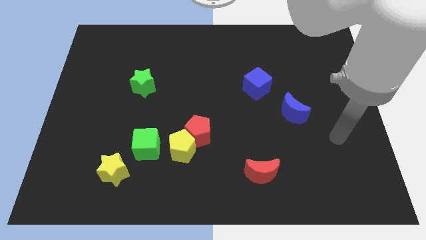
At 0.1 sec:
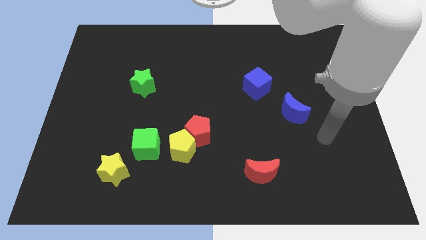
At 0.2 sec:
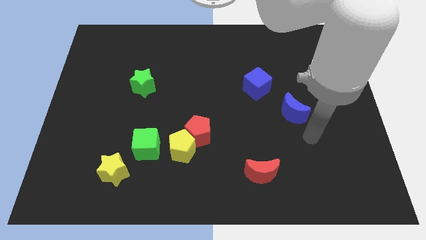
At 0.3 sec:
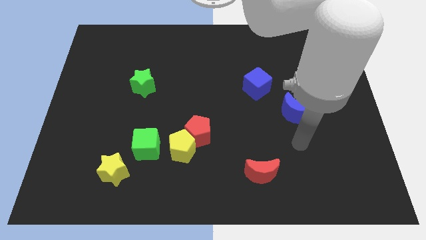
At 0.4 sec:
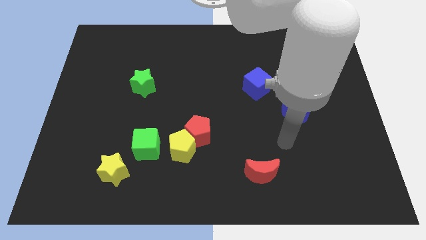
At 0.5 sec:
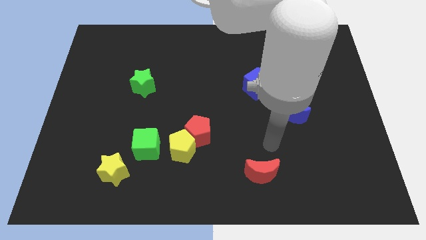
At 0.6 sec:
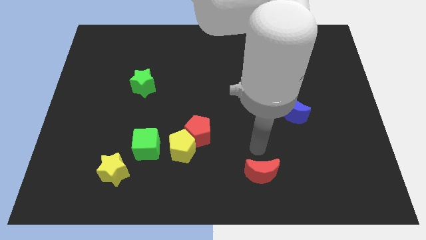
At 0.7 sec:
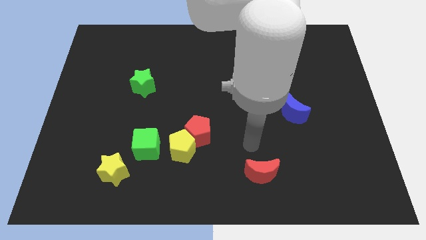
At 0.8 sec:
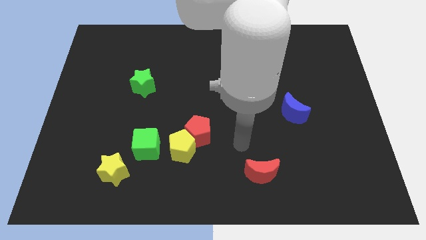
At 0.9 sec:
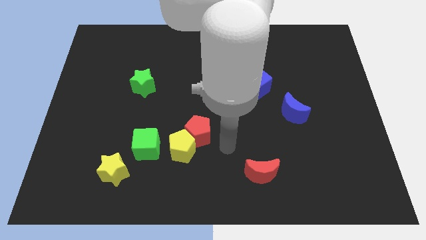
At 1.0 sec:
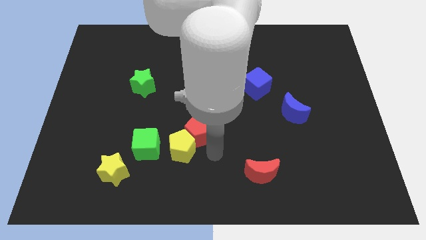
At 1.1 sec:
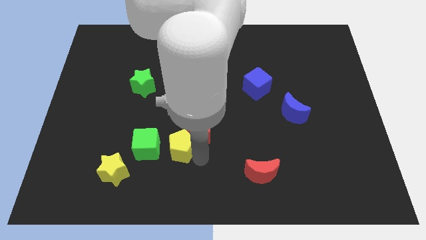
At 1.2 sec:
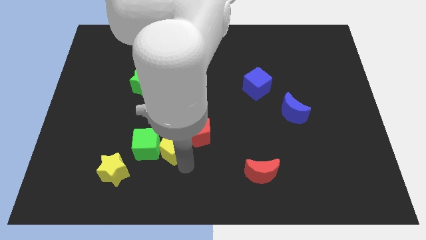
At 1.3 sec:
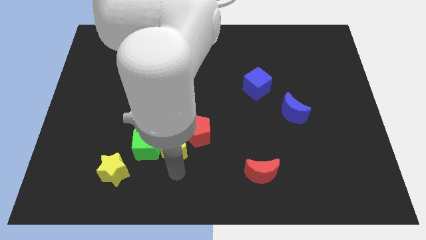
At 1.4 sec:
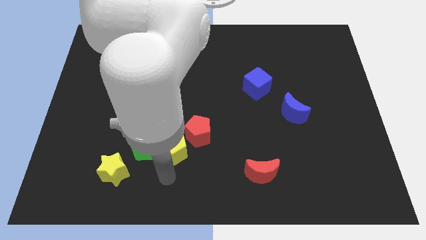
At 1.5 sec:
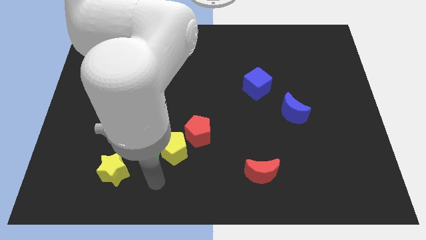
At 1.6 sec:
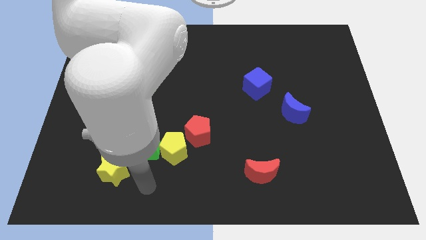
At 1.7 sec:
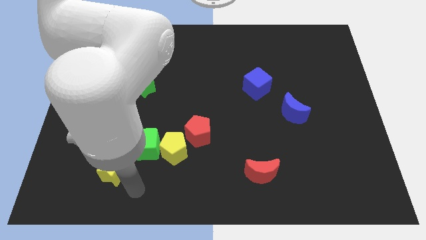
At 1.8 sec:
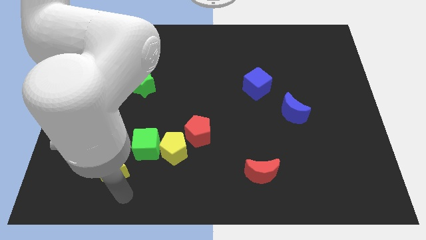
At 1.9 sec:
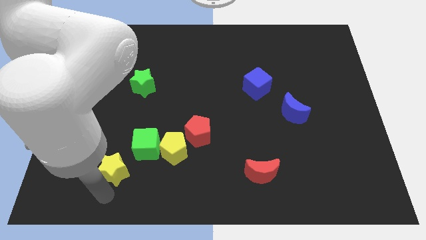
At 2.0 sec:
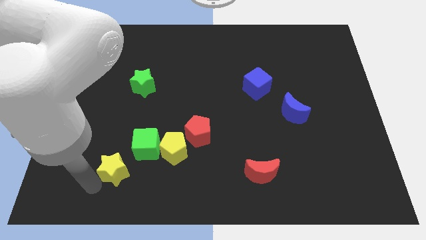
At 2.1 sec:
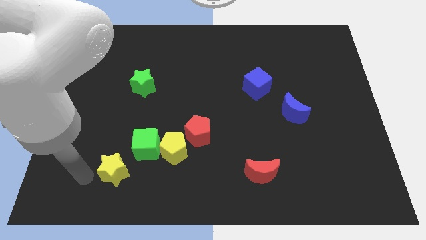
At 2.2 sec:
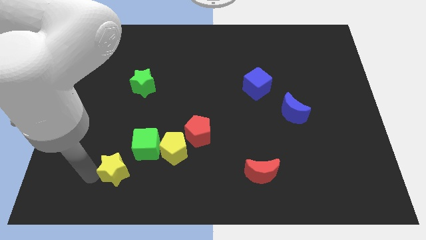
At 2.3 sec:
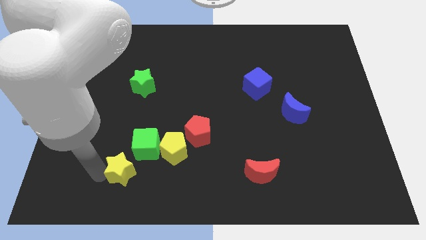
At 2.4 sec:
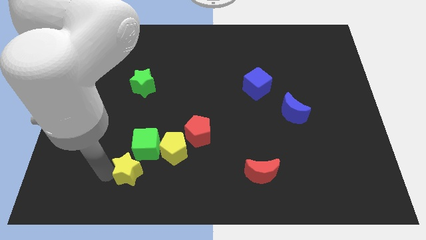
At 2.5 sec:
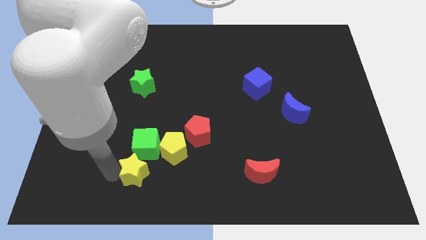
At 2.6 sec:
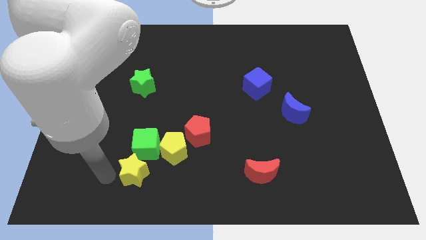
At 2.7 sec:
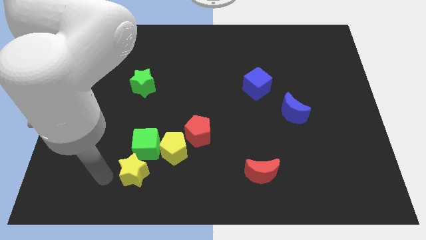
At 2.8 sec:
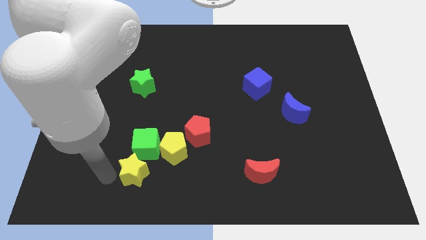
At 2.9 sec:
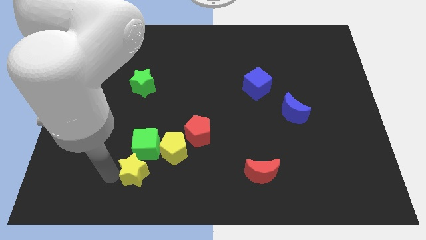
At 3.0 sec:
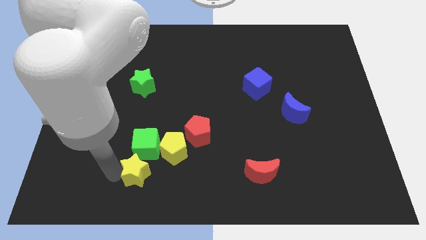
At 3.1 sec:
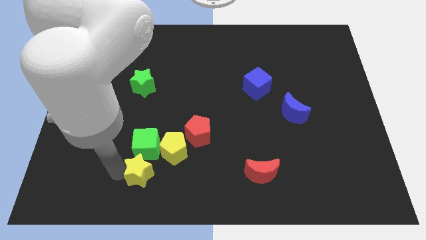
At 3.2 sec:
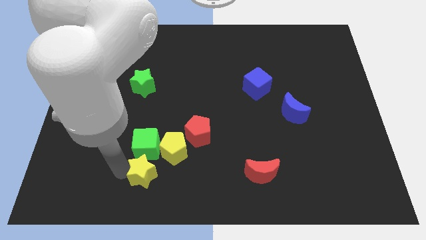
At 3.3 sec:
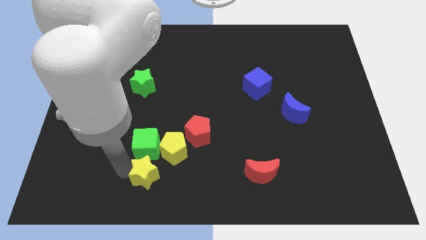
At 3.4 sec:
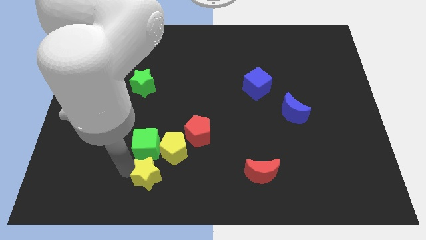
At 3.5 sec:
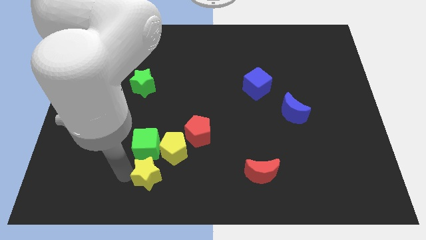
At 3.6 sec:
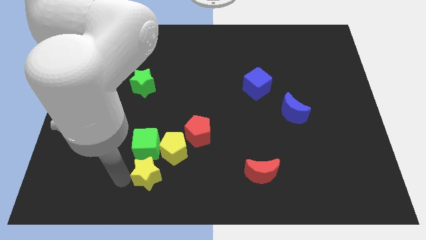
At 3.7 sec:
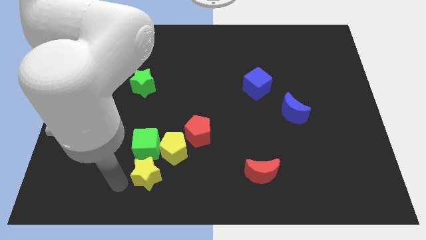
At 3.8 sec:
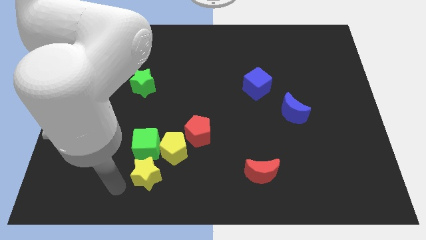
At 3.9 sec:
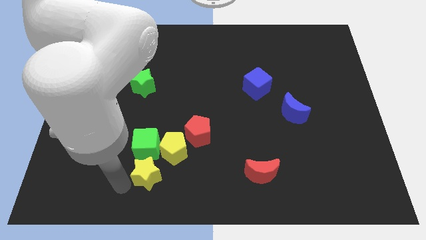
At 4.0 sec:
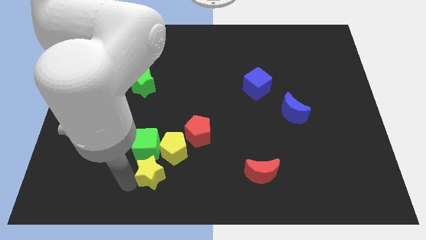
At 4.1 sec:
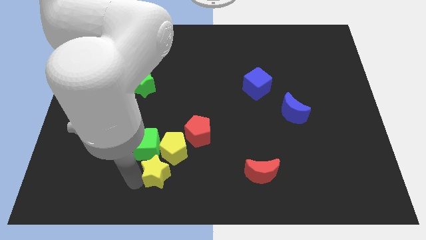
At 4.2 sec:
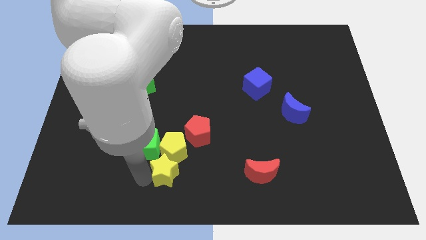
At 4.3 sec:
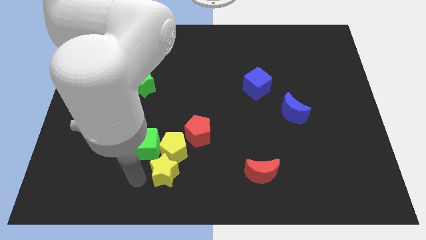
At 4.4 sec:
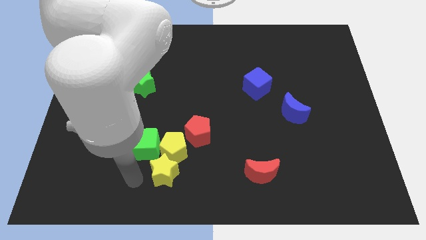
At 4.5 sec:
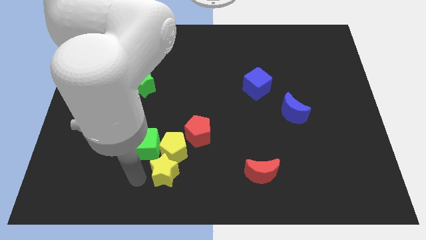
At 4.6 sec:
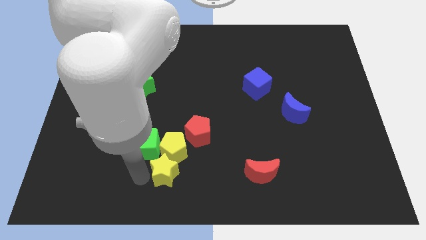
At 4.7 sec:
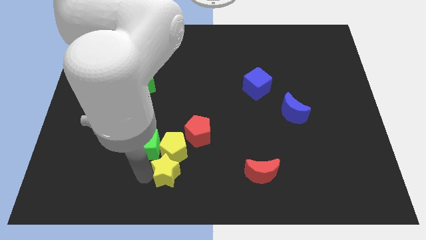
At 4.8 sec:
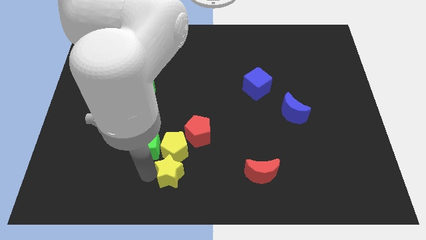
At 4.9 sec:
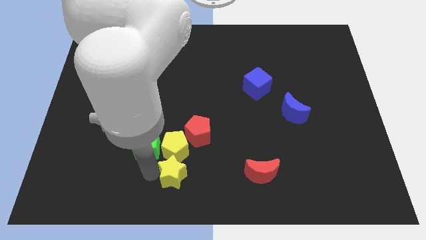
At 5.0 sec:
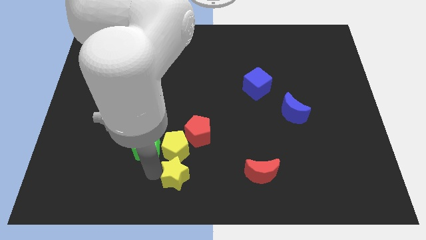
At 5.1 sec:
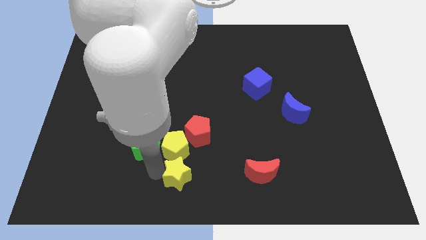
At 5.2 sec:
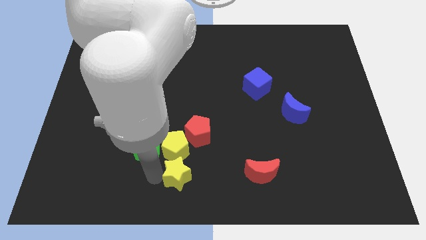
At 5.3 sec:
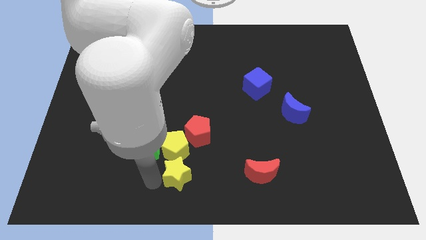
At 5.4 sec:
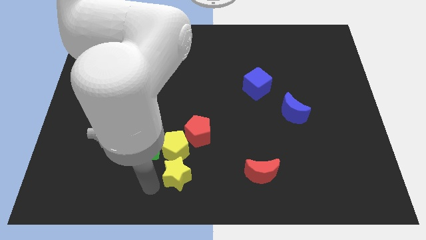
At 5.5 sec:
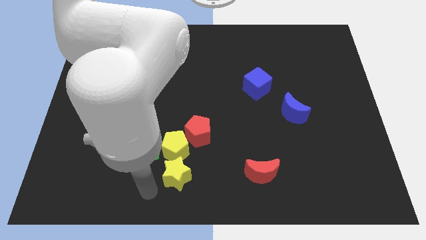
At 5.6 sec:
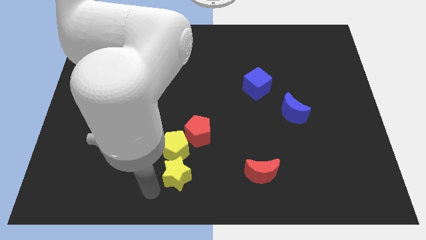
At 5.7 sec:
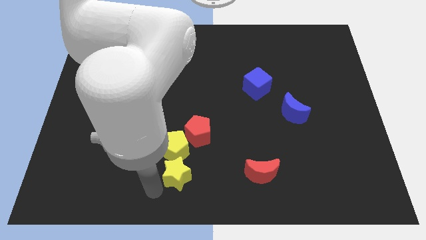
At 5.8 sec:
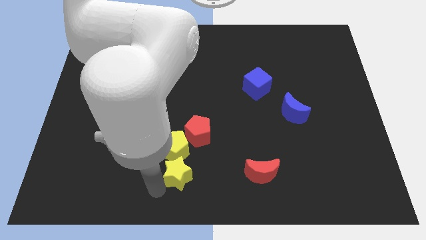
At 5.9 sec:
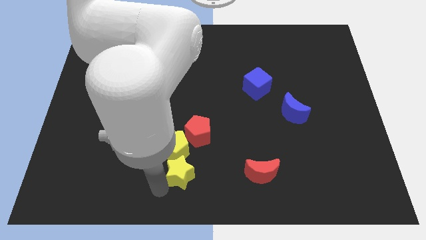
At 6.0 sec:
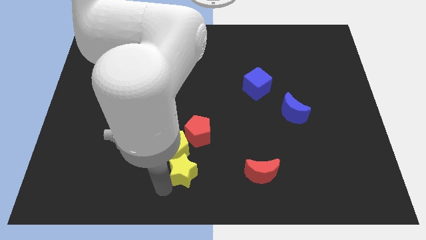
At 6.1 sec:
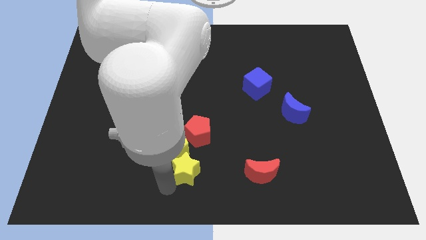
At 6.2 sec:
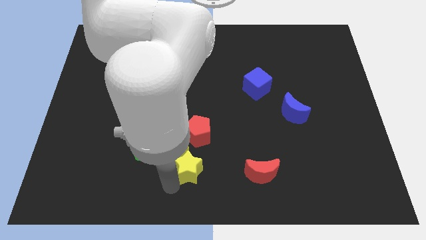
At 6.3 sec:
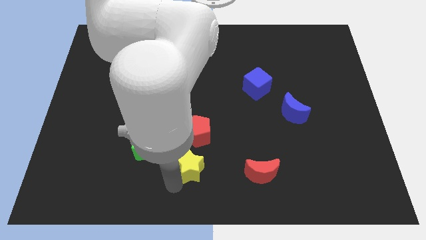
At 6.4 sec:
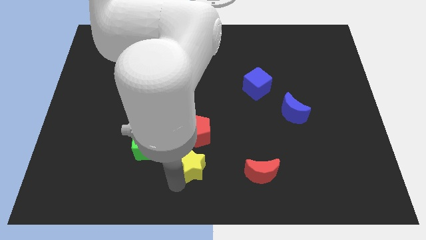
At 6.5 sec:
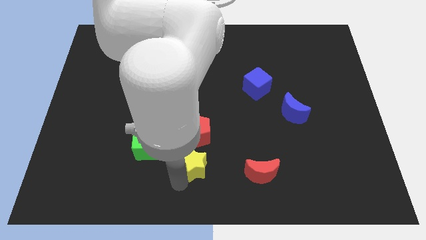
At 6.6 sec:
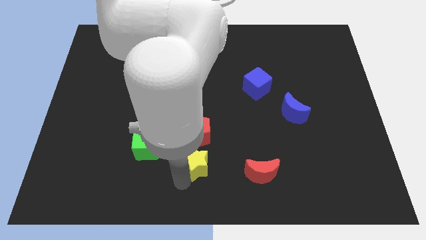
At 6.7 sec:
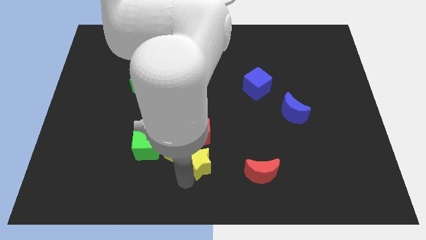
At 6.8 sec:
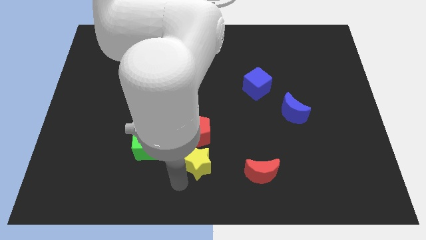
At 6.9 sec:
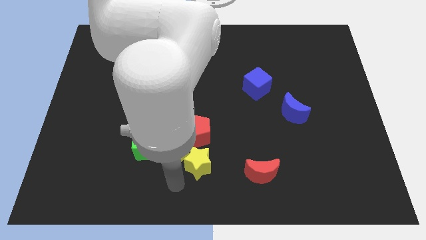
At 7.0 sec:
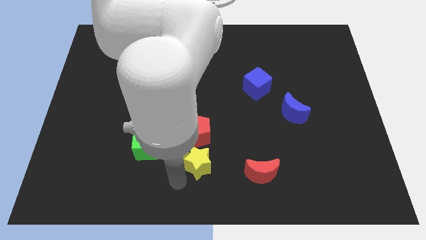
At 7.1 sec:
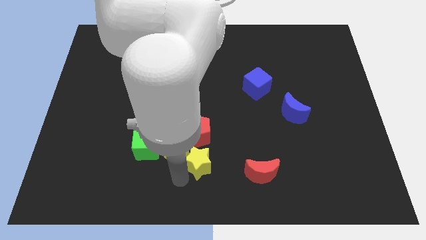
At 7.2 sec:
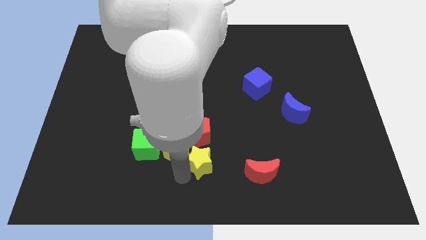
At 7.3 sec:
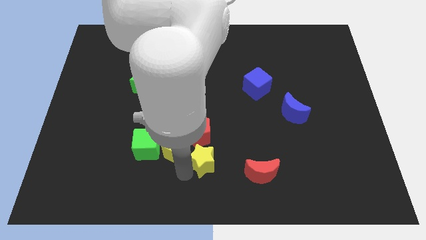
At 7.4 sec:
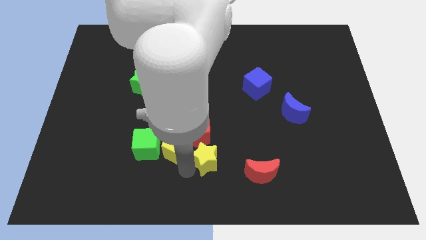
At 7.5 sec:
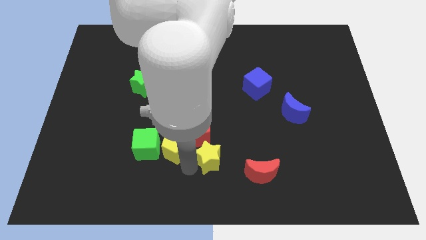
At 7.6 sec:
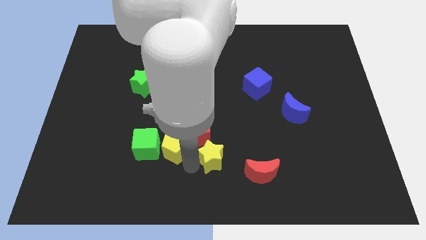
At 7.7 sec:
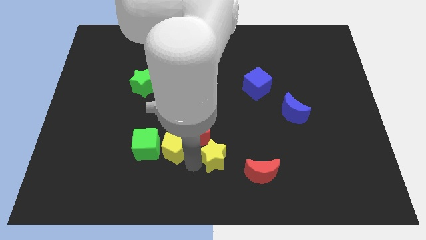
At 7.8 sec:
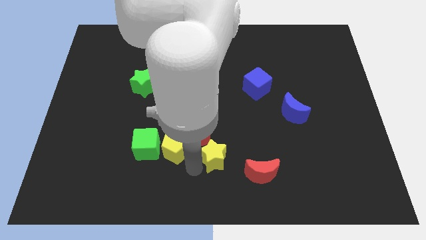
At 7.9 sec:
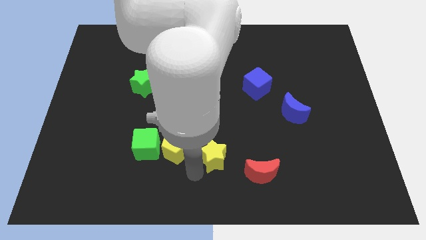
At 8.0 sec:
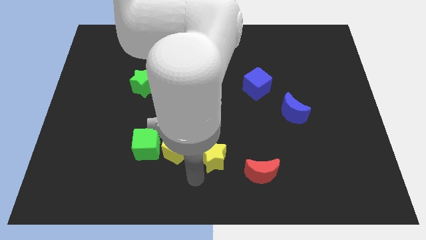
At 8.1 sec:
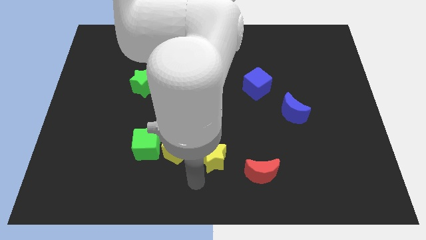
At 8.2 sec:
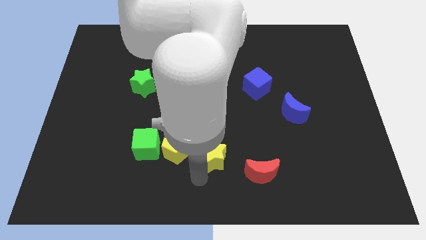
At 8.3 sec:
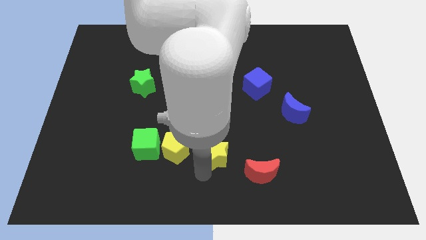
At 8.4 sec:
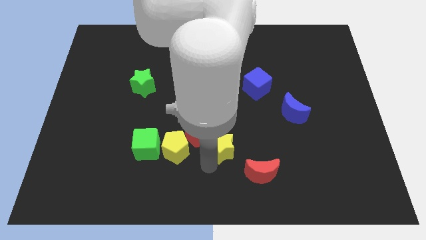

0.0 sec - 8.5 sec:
slide the yellow star to the right of the red pentagon
